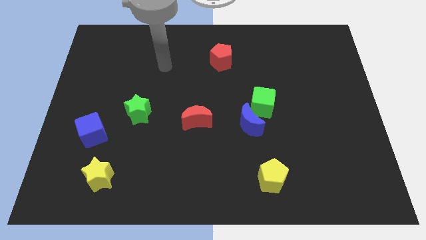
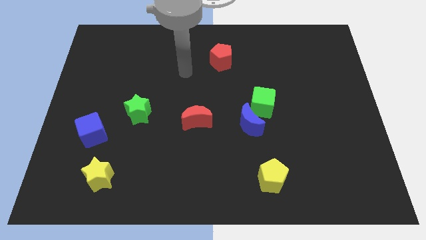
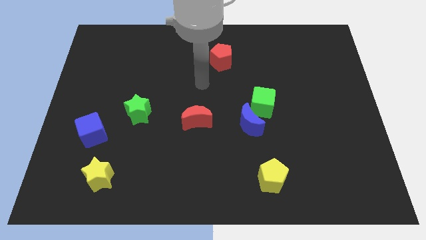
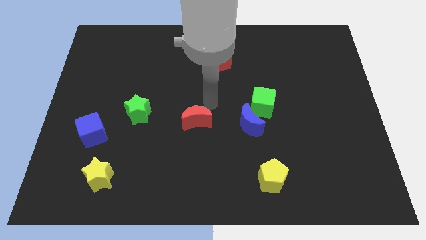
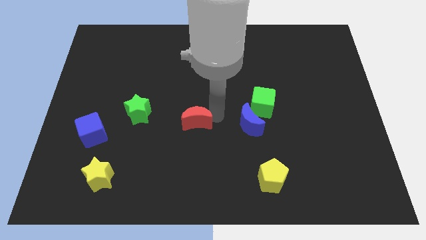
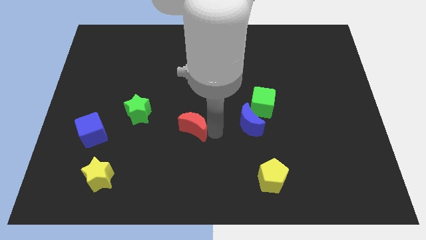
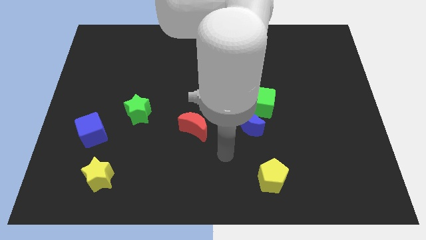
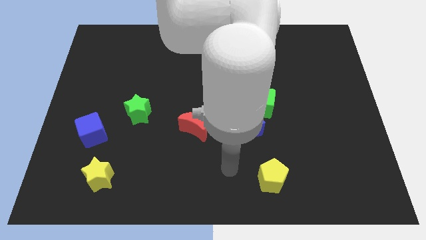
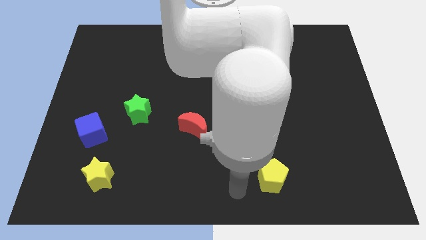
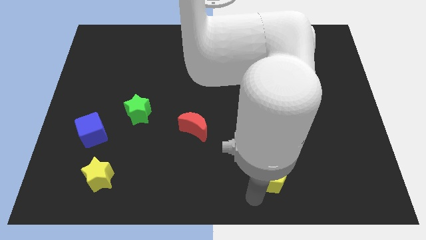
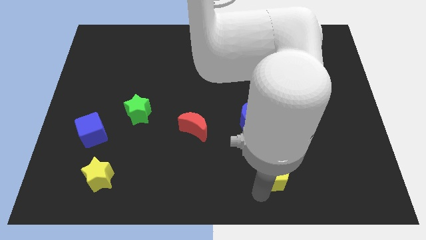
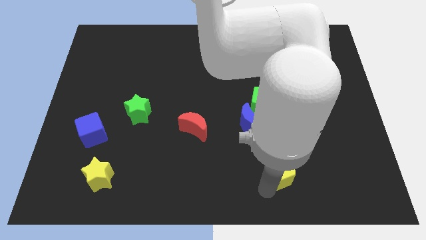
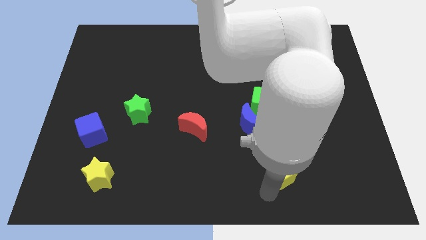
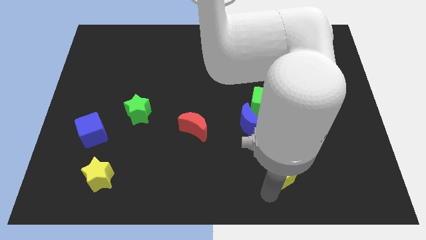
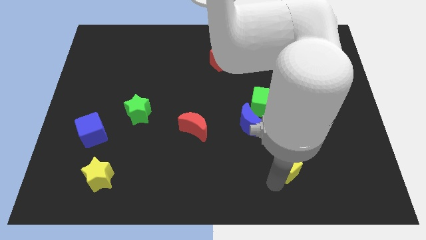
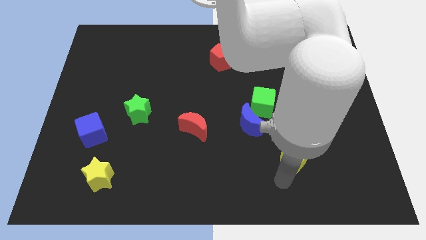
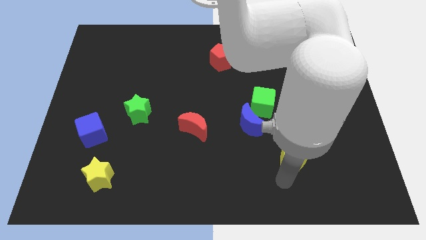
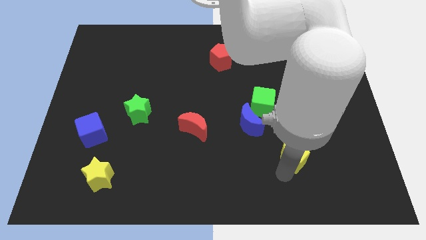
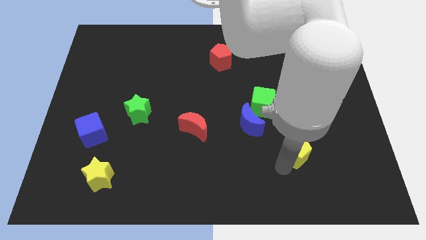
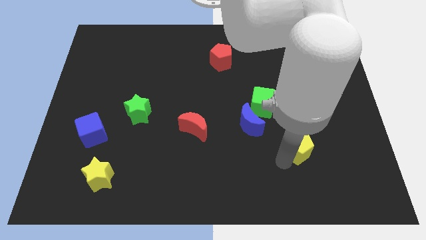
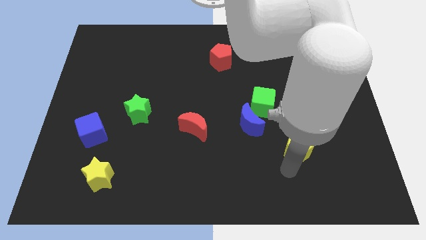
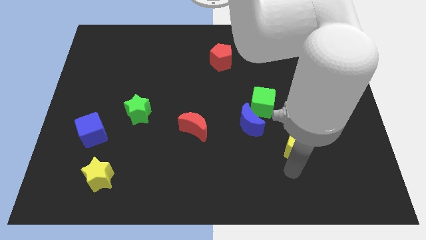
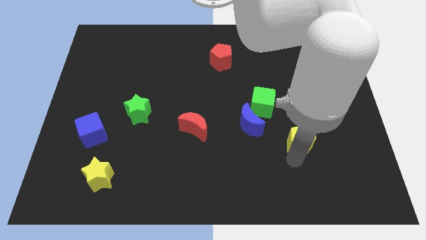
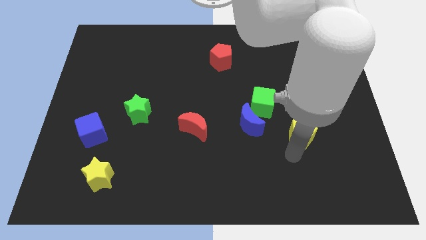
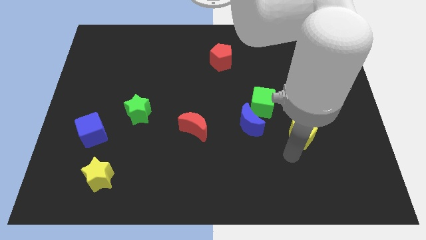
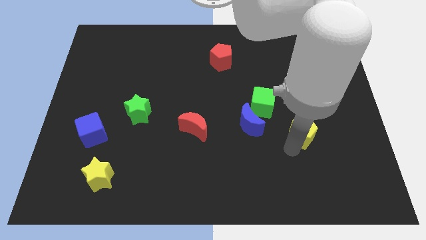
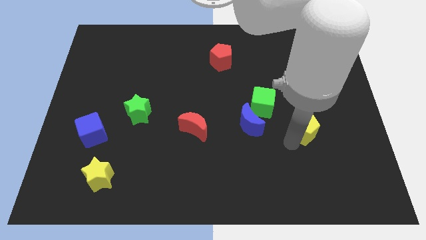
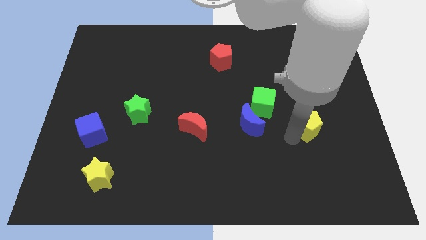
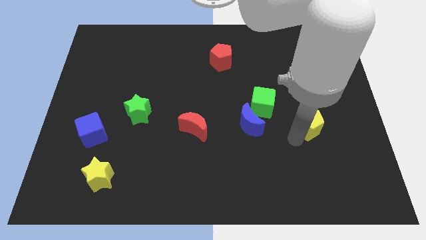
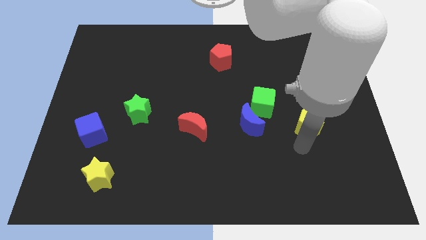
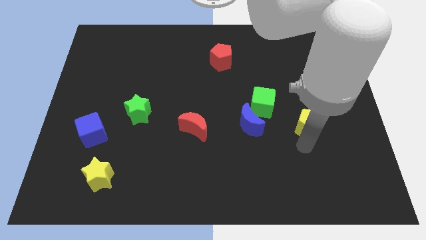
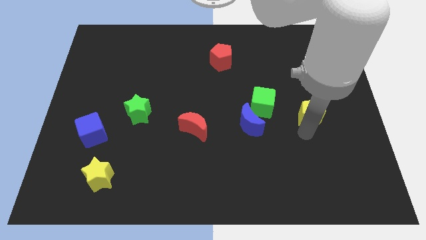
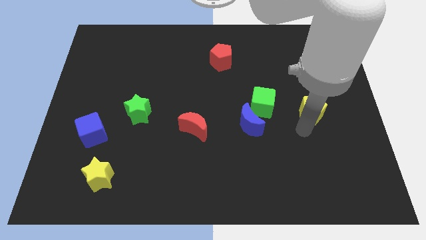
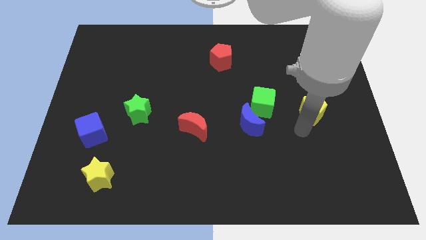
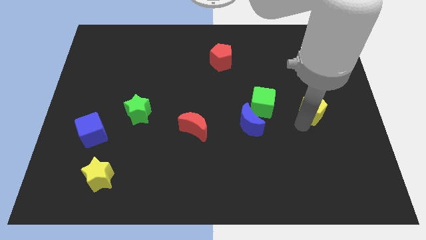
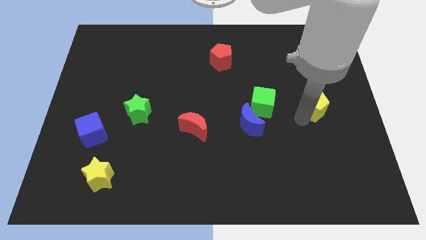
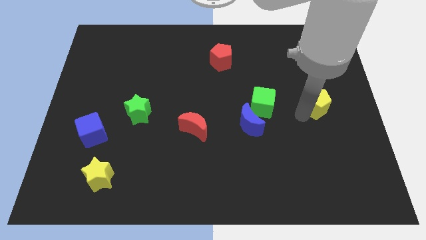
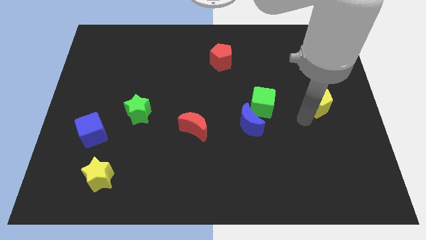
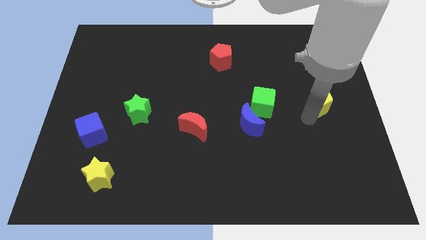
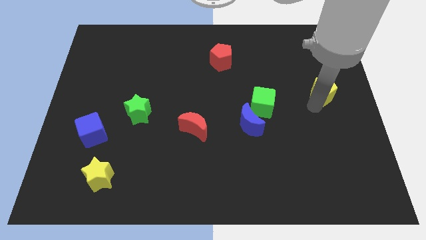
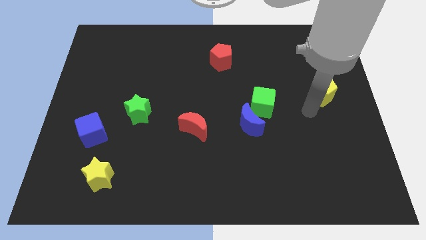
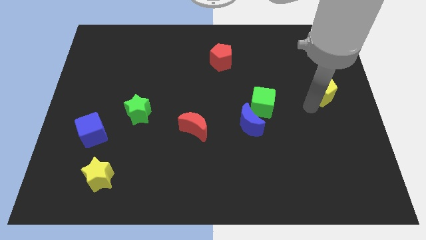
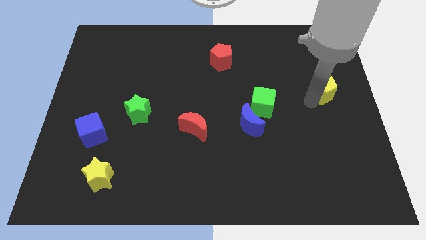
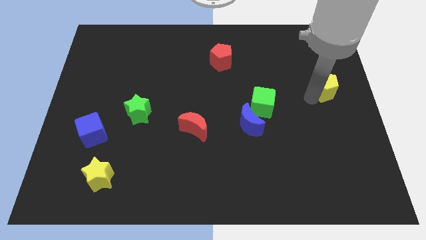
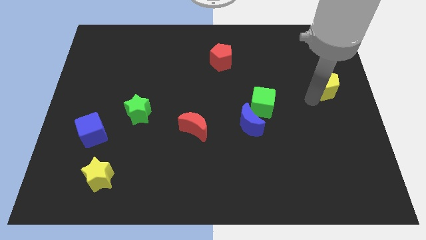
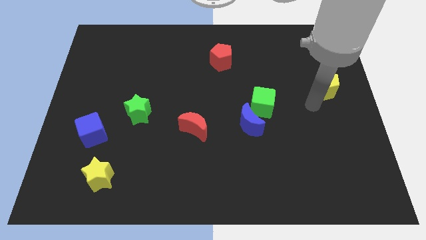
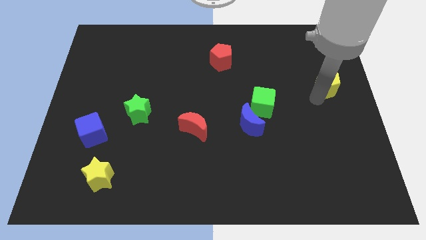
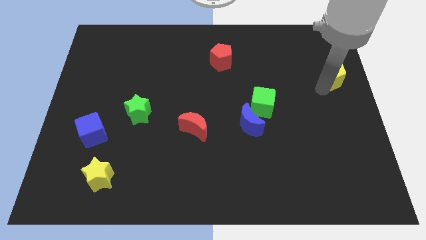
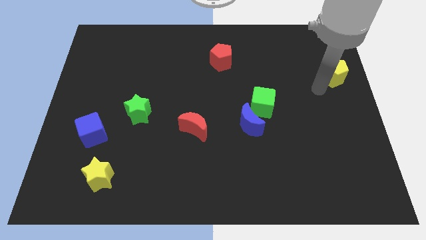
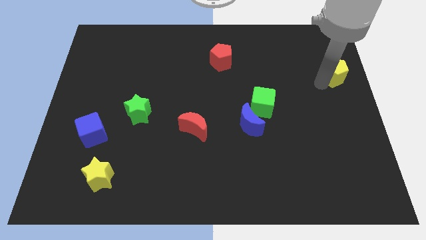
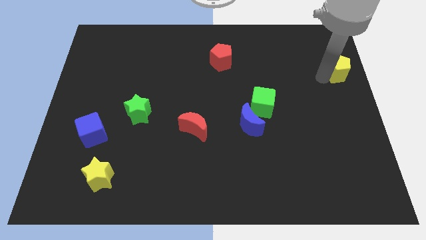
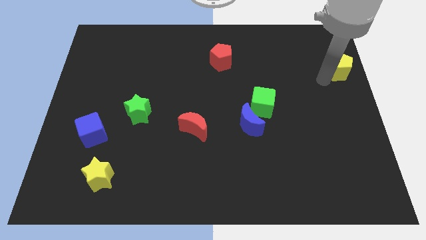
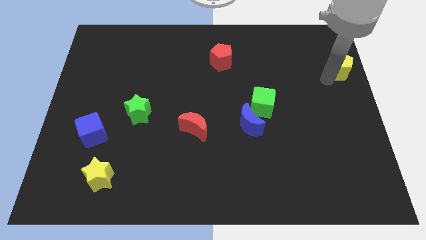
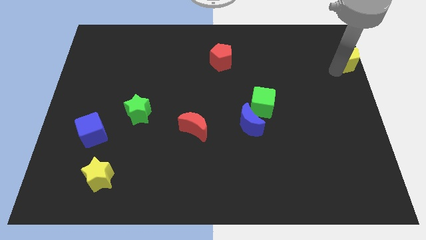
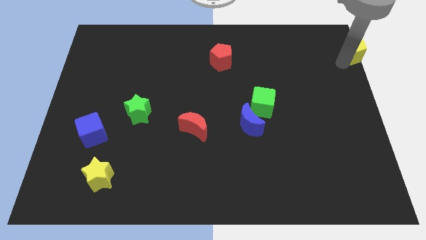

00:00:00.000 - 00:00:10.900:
move the yellow pentagon to the top right corner

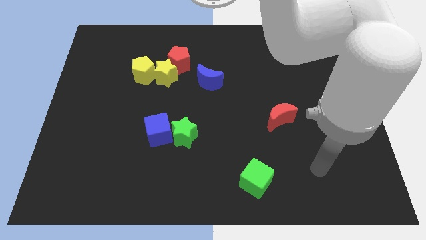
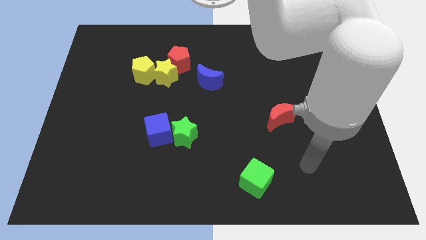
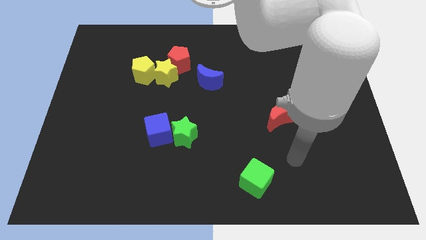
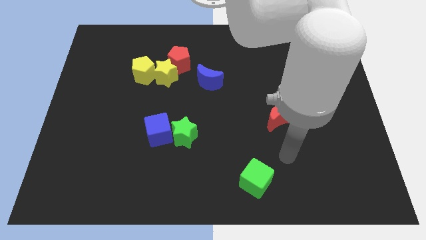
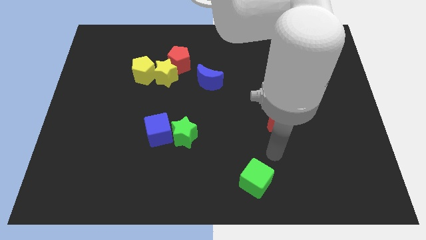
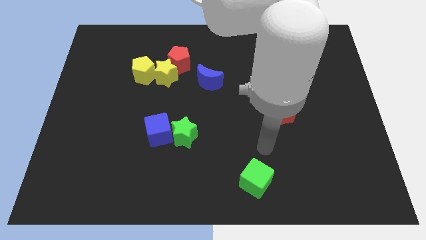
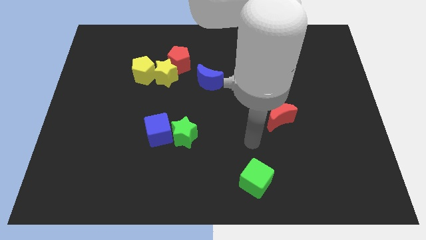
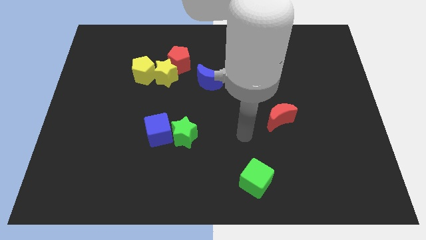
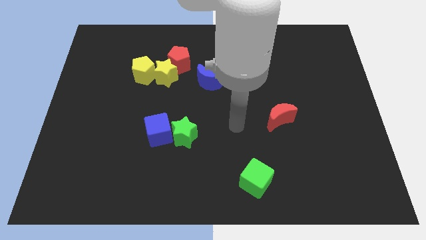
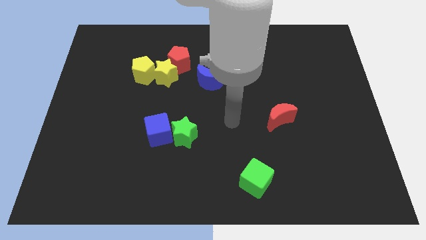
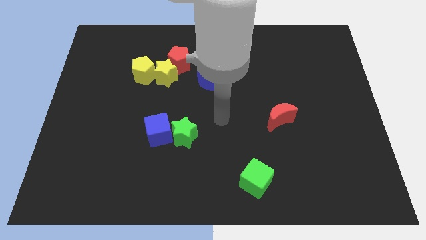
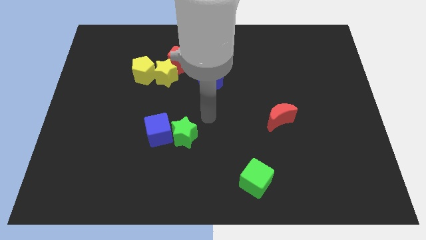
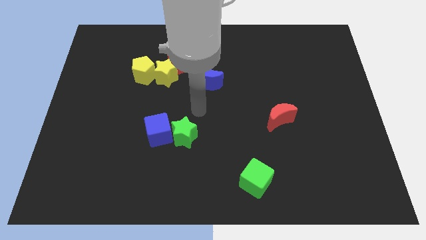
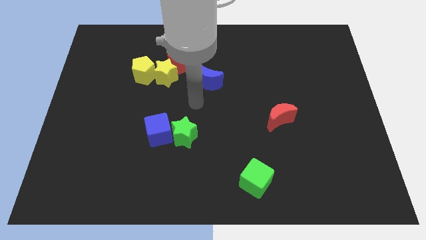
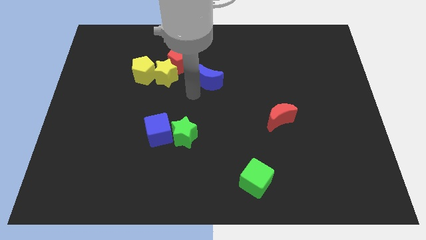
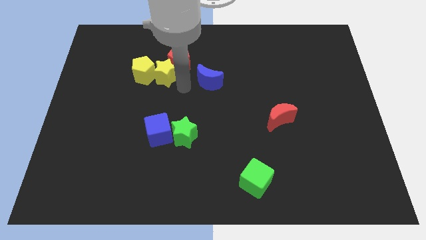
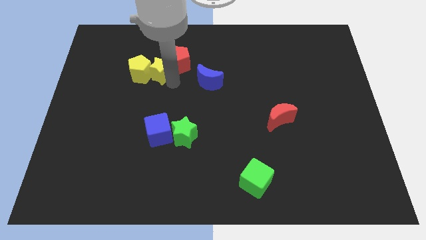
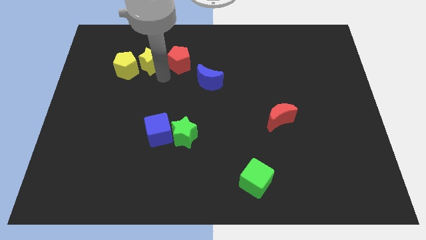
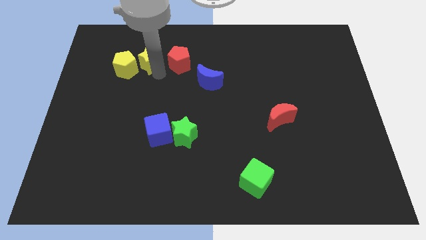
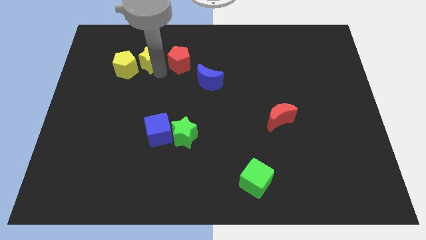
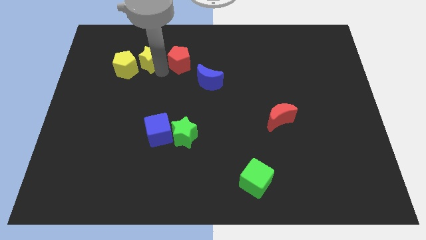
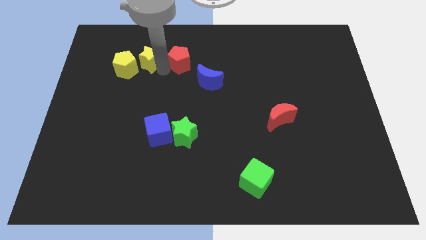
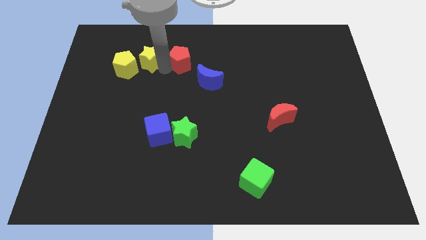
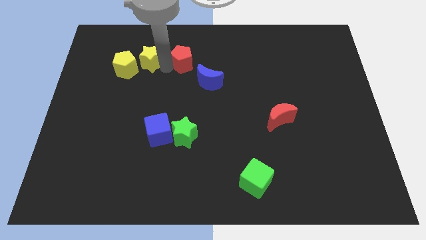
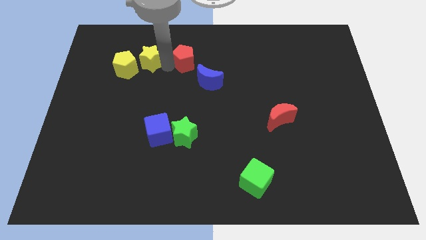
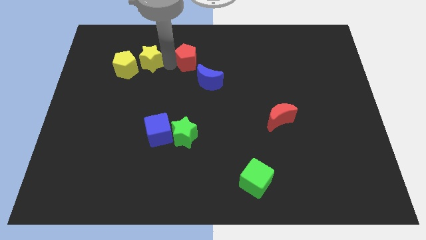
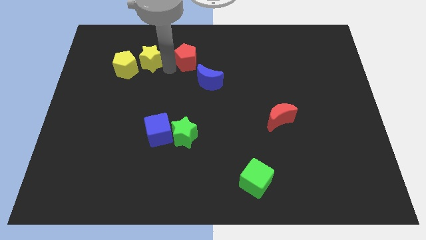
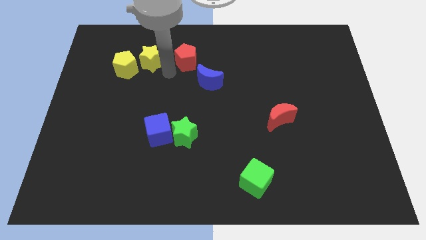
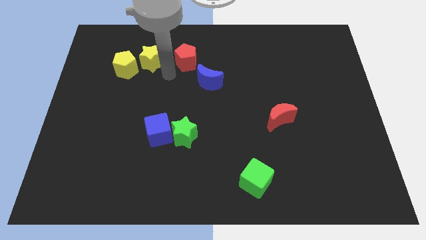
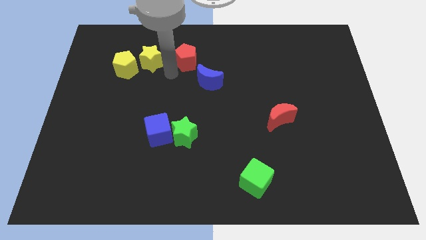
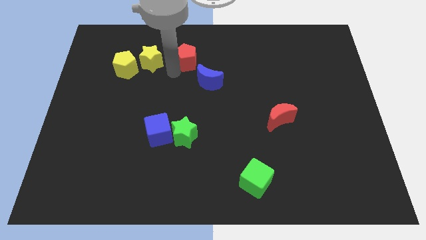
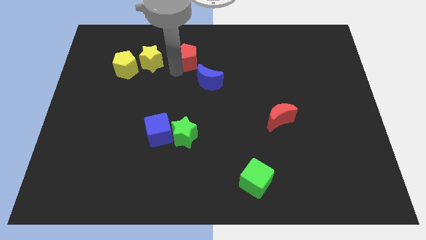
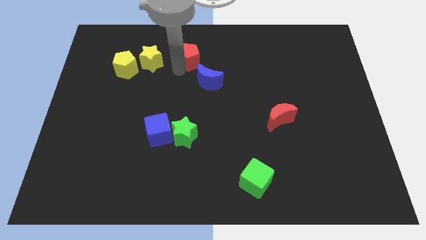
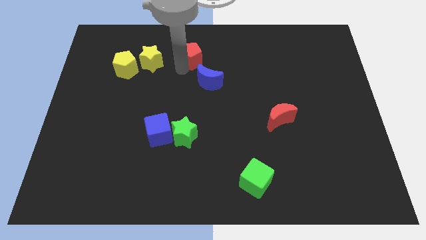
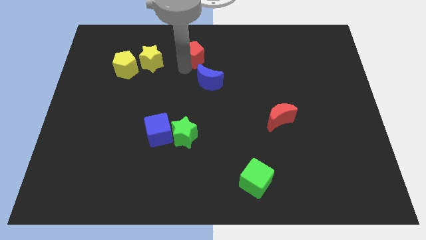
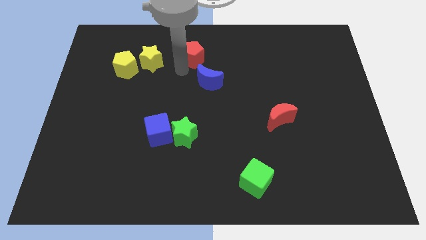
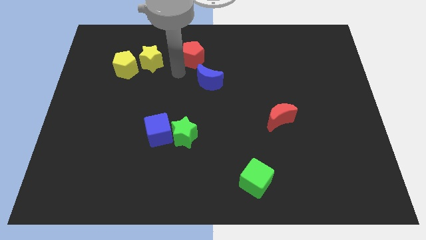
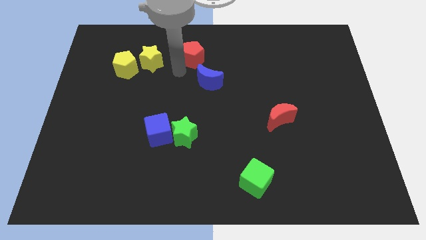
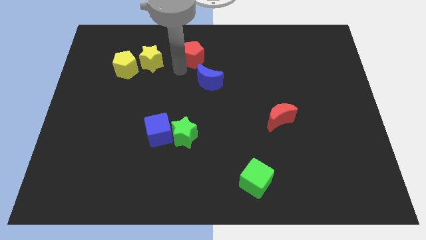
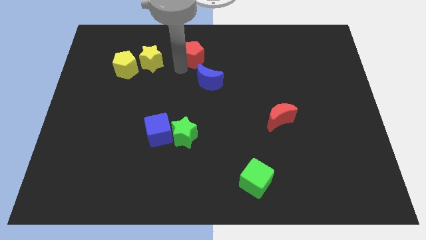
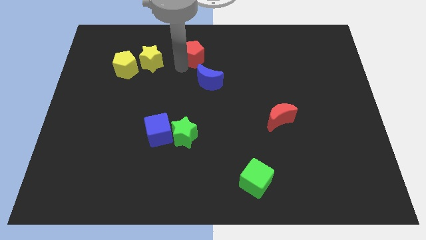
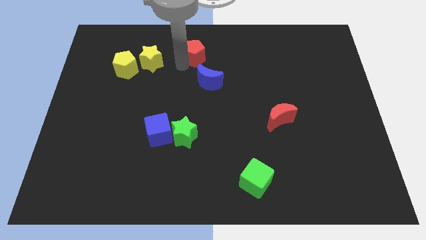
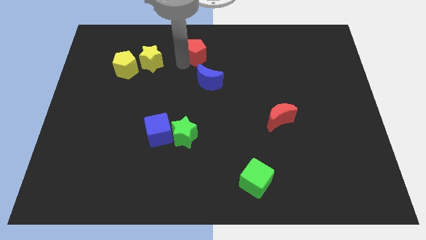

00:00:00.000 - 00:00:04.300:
push the red pentagon to the top
